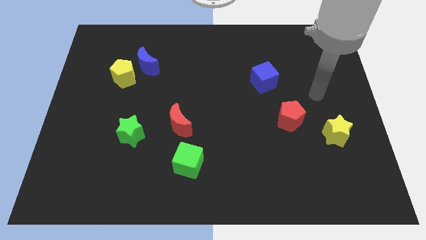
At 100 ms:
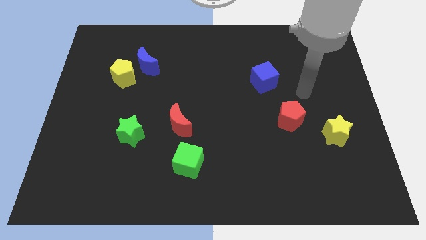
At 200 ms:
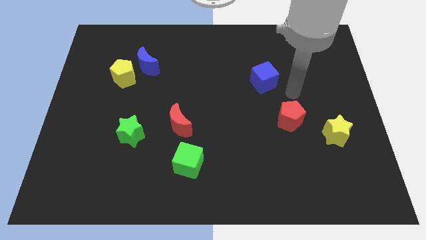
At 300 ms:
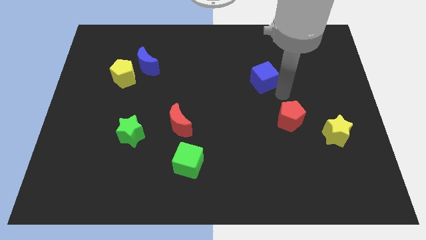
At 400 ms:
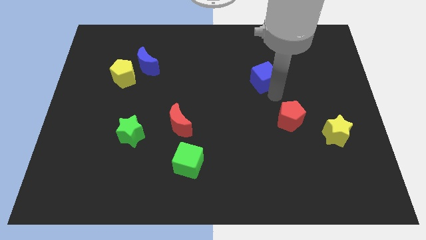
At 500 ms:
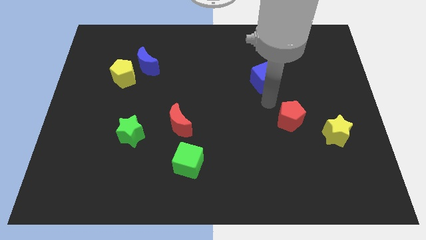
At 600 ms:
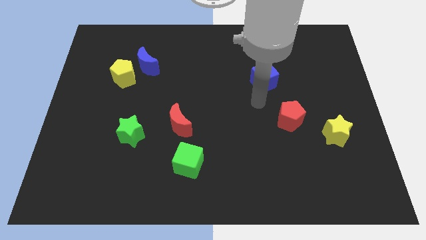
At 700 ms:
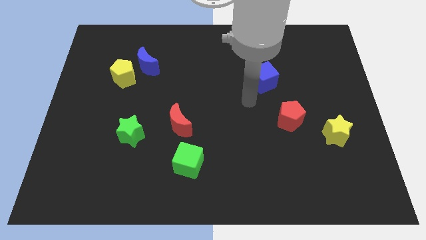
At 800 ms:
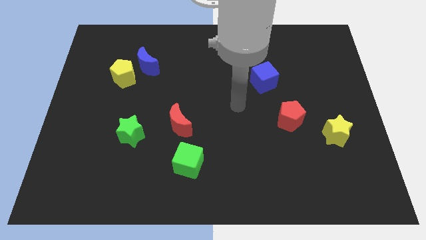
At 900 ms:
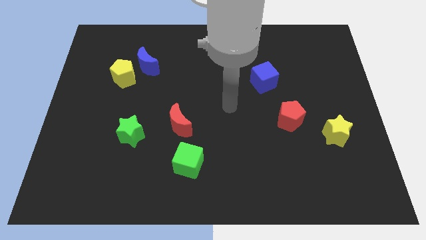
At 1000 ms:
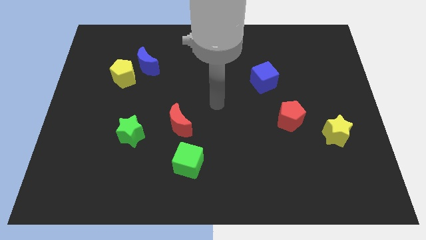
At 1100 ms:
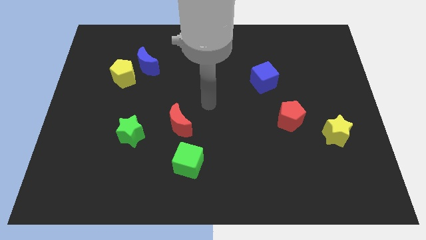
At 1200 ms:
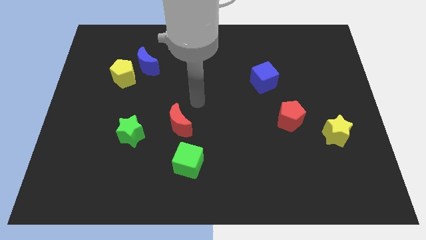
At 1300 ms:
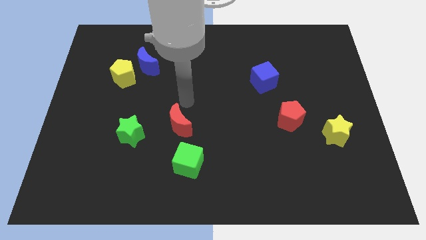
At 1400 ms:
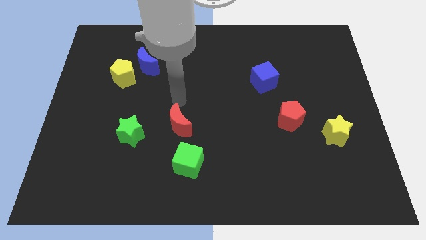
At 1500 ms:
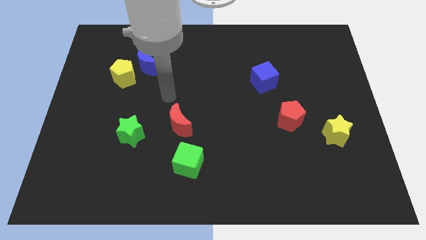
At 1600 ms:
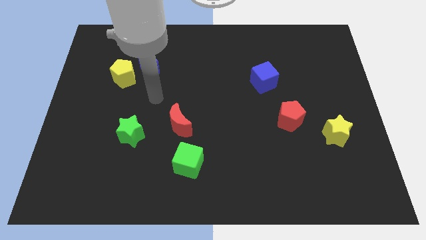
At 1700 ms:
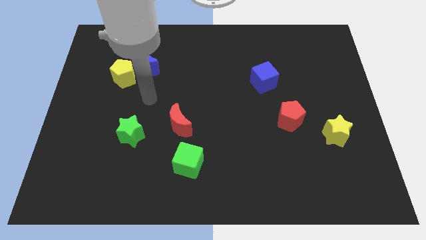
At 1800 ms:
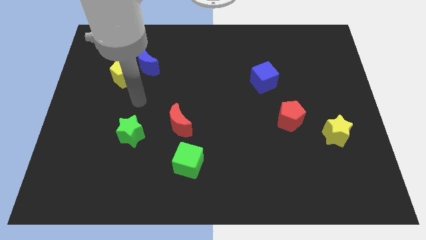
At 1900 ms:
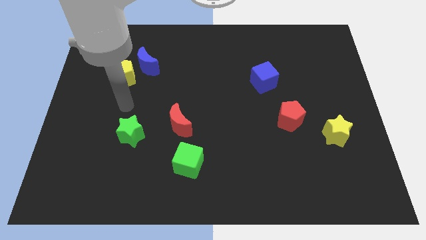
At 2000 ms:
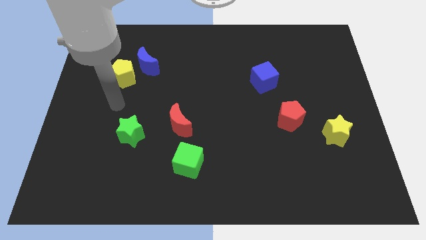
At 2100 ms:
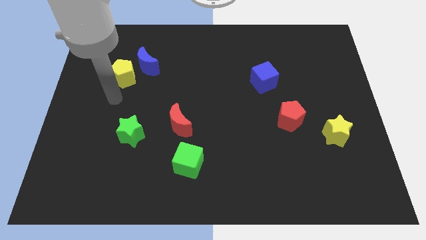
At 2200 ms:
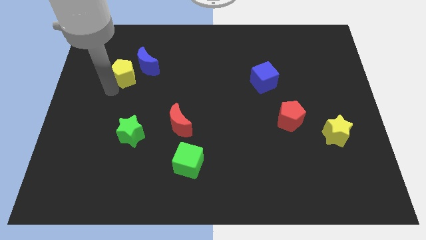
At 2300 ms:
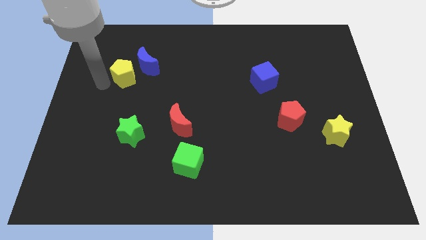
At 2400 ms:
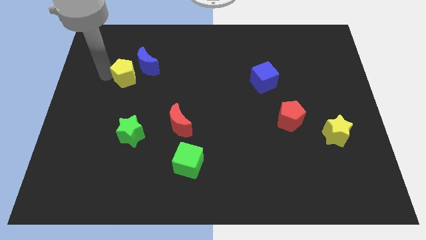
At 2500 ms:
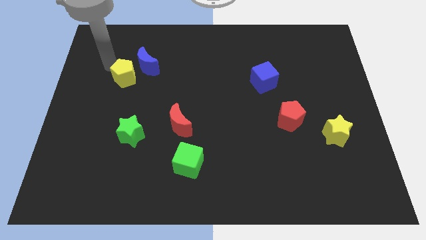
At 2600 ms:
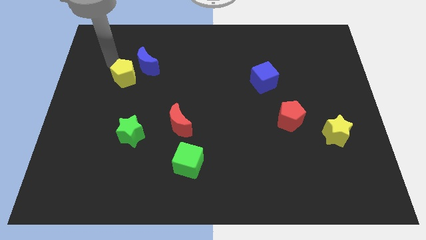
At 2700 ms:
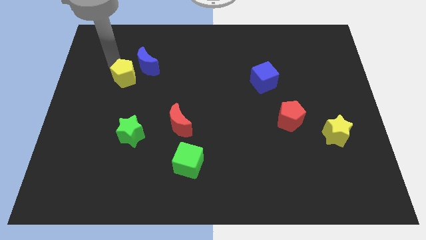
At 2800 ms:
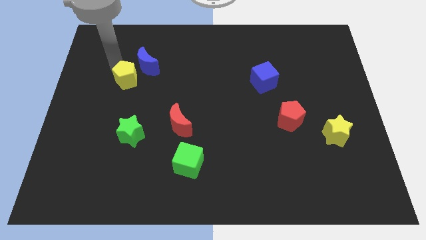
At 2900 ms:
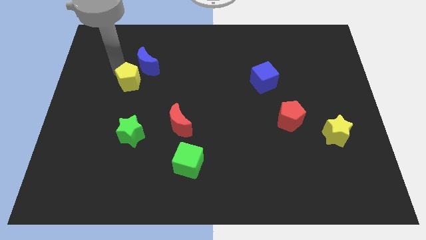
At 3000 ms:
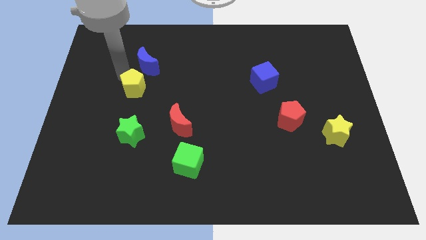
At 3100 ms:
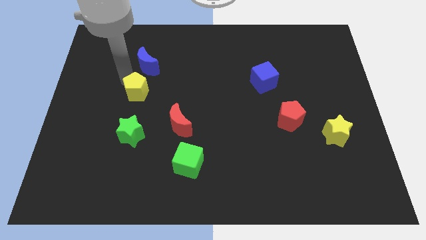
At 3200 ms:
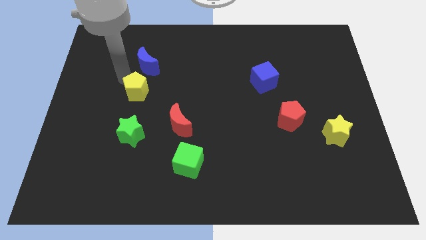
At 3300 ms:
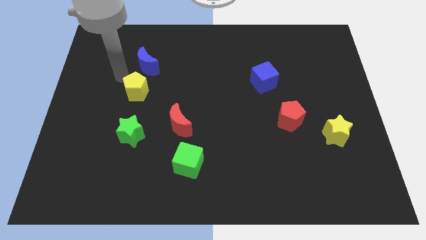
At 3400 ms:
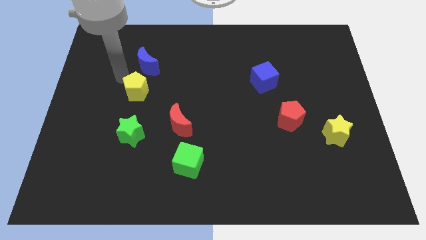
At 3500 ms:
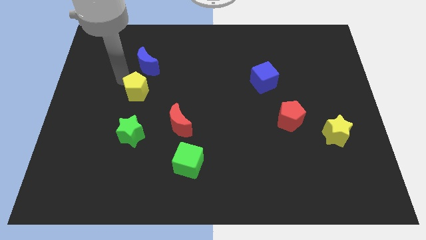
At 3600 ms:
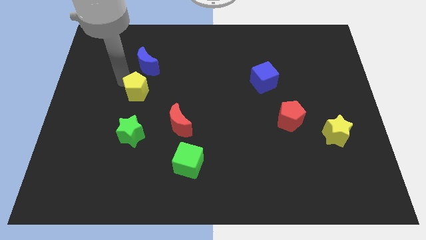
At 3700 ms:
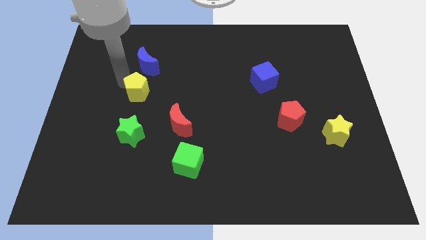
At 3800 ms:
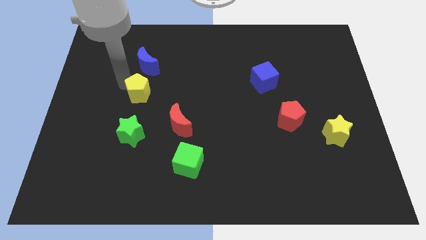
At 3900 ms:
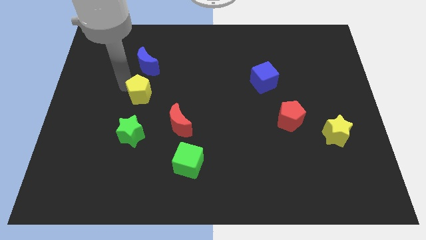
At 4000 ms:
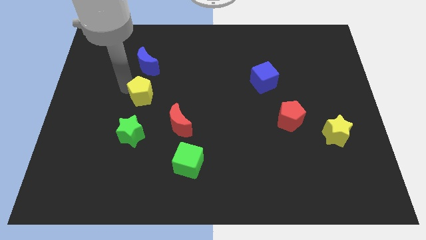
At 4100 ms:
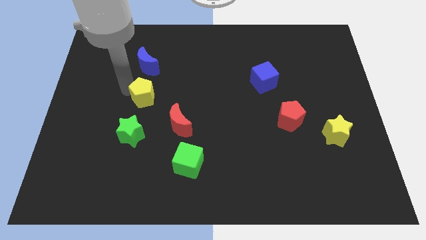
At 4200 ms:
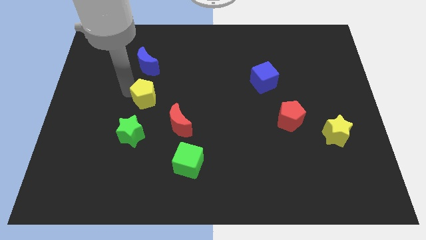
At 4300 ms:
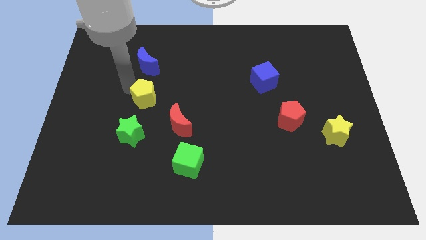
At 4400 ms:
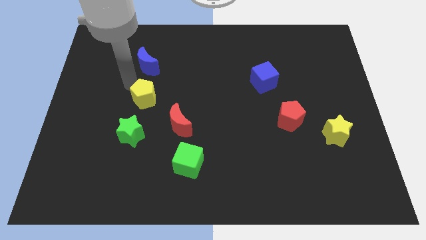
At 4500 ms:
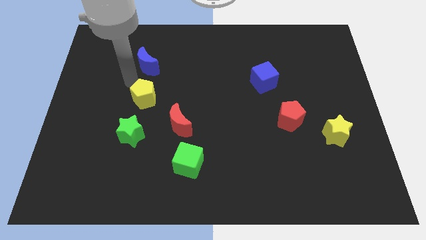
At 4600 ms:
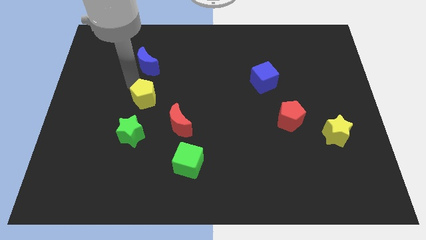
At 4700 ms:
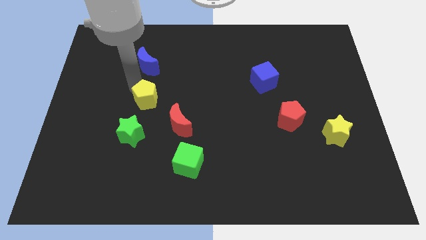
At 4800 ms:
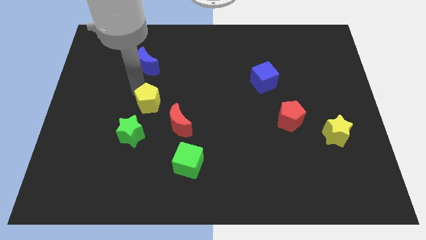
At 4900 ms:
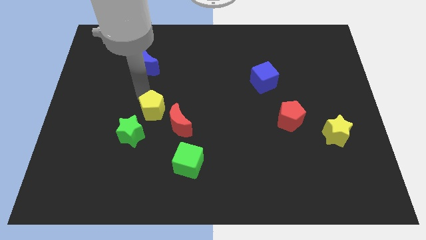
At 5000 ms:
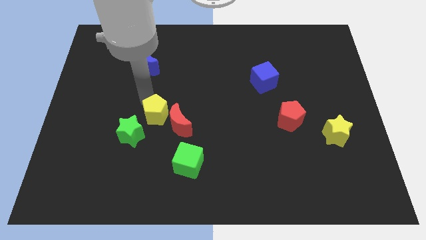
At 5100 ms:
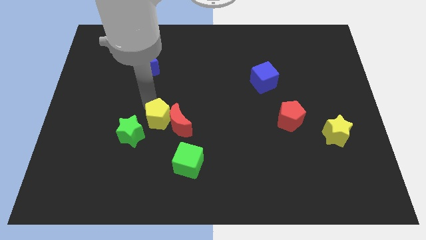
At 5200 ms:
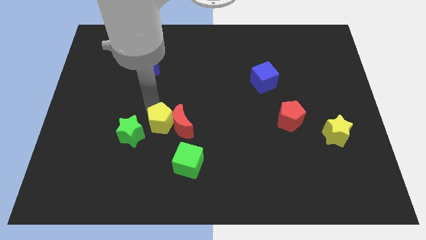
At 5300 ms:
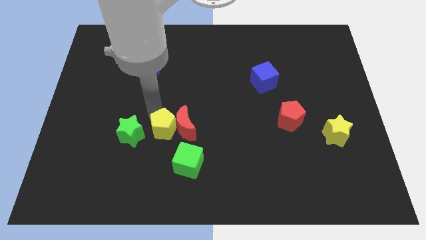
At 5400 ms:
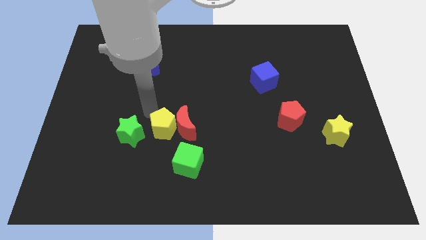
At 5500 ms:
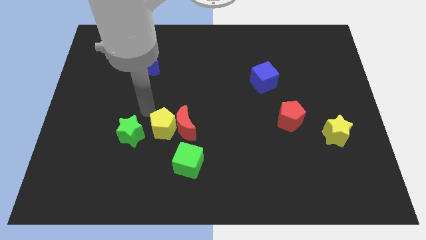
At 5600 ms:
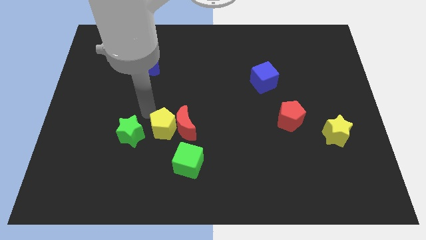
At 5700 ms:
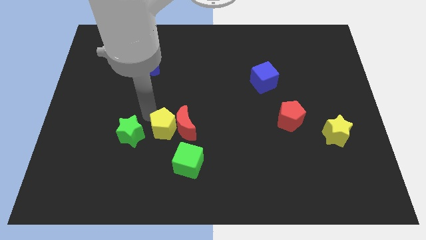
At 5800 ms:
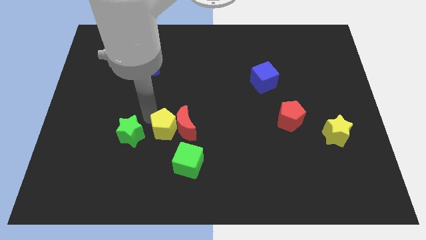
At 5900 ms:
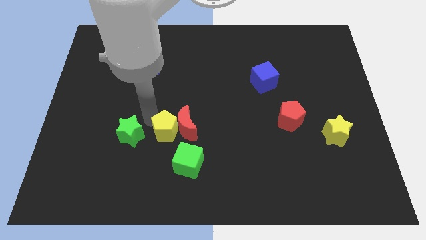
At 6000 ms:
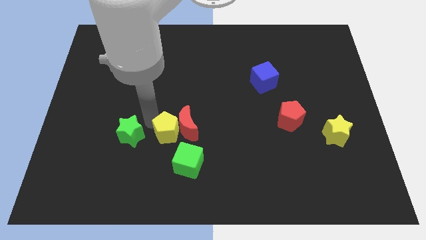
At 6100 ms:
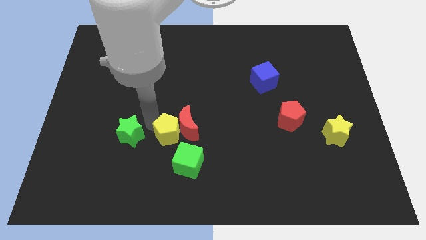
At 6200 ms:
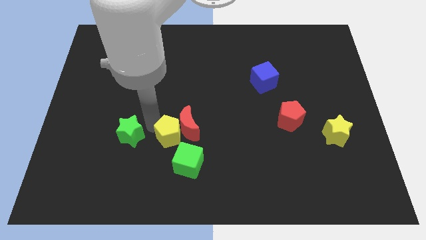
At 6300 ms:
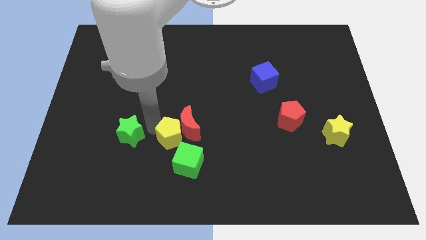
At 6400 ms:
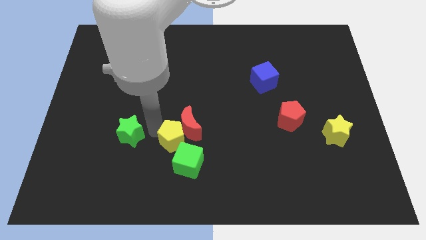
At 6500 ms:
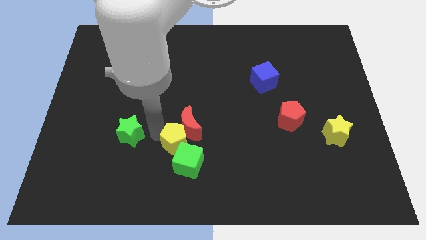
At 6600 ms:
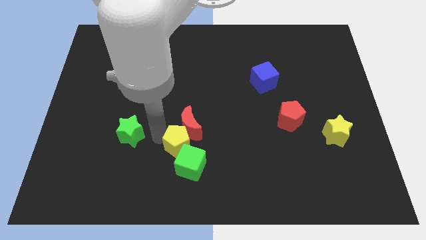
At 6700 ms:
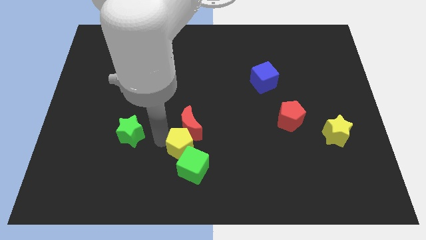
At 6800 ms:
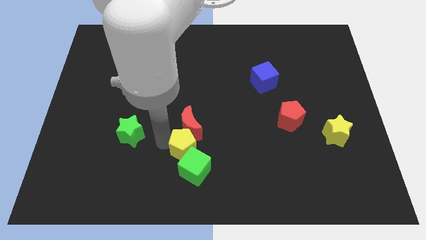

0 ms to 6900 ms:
slide the yellow pentagon diagonally down and to the right of the red moon
